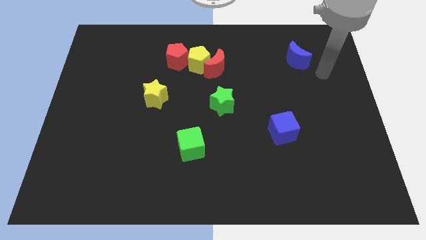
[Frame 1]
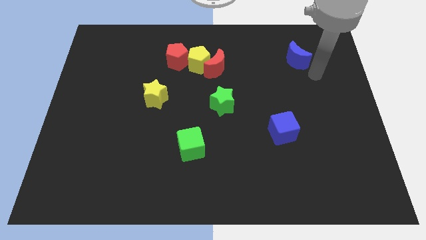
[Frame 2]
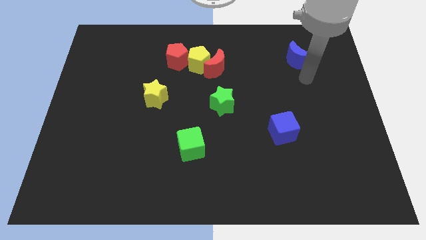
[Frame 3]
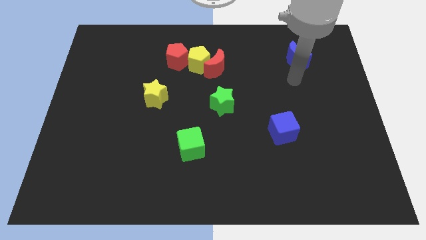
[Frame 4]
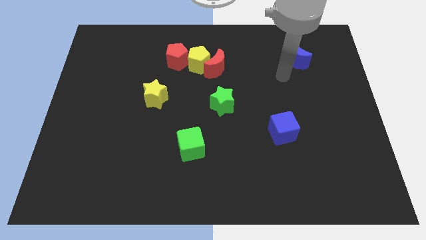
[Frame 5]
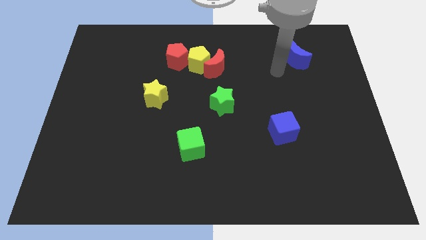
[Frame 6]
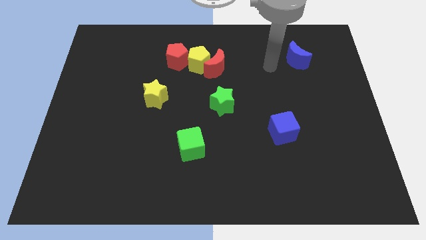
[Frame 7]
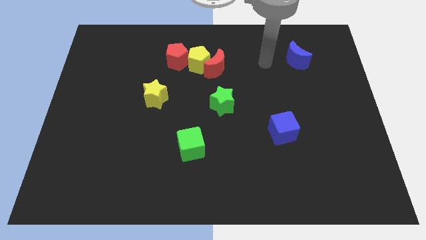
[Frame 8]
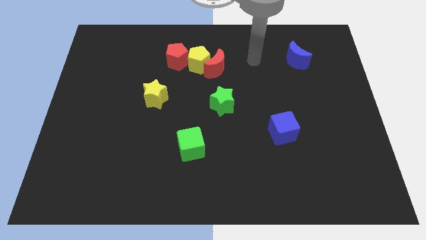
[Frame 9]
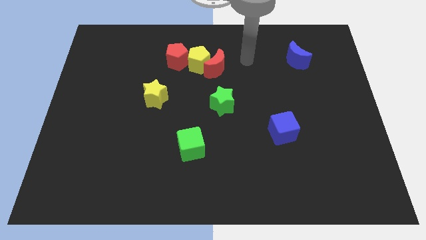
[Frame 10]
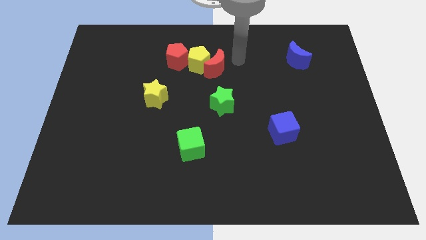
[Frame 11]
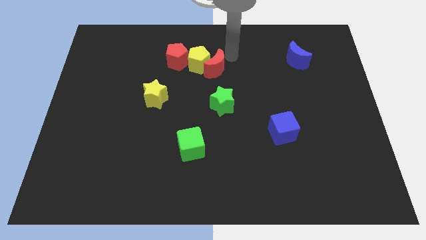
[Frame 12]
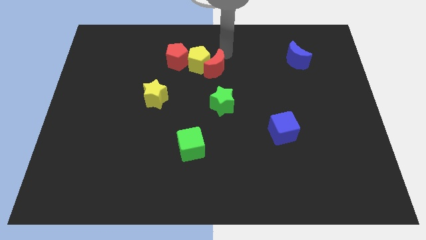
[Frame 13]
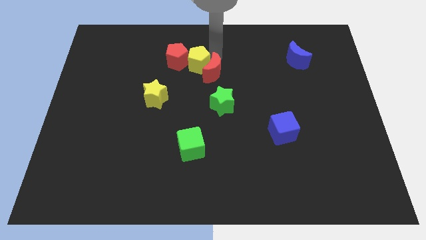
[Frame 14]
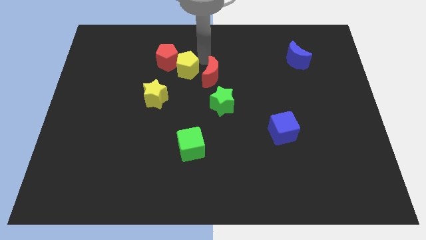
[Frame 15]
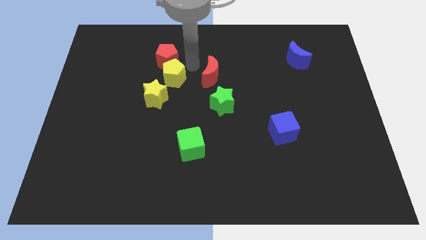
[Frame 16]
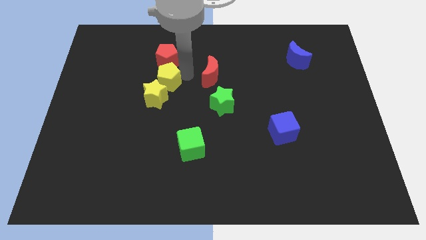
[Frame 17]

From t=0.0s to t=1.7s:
pull the red moon apart from the yellow pentagon

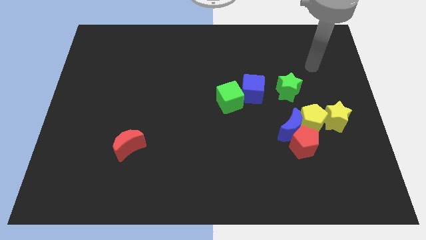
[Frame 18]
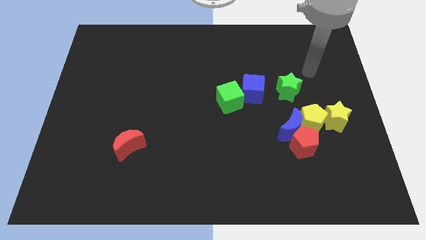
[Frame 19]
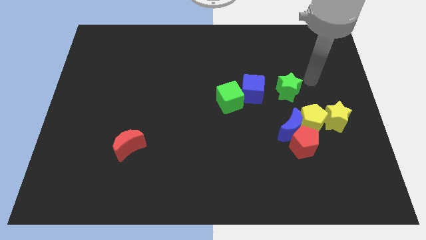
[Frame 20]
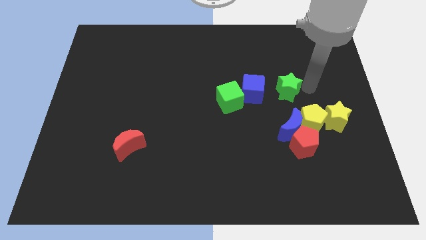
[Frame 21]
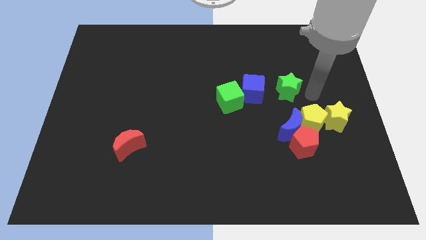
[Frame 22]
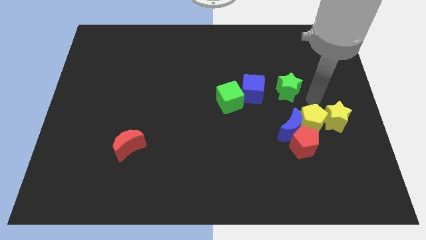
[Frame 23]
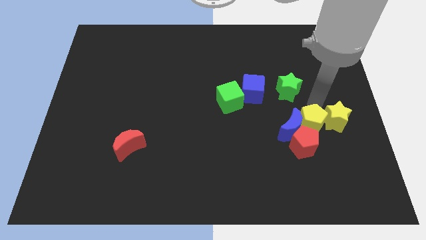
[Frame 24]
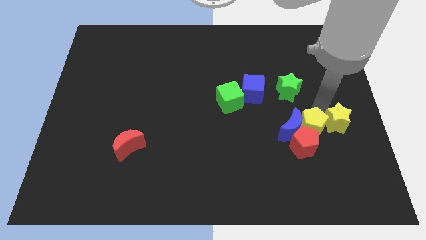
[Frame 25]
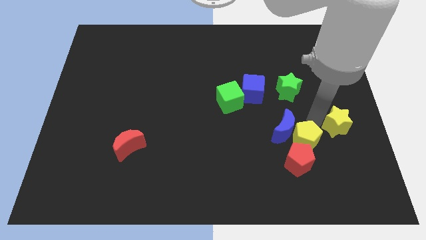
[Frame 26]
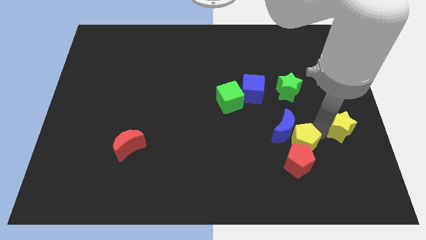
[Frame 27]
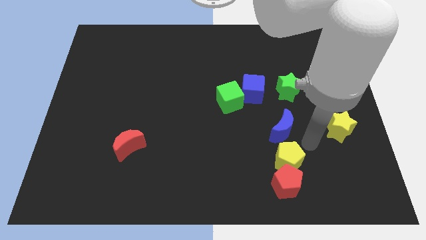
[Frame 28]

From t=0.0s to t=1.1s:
separate the blue moon from the red pentagon and yellow pentagon

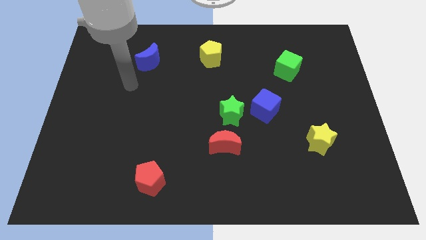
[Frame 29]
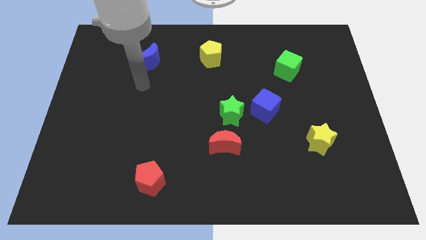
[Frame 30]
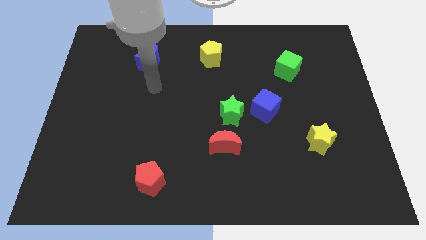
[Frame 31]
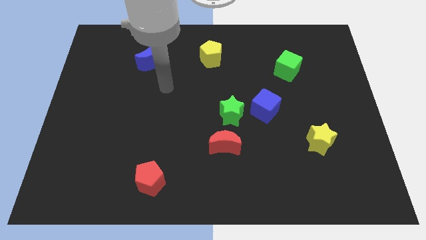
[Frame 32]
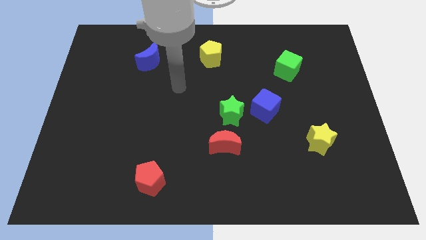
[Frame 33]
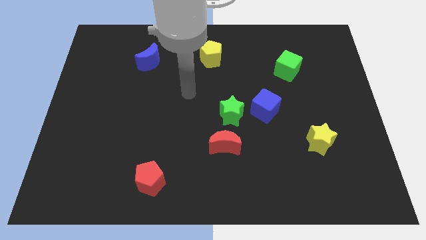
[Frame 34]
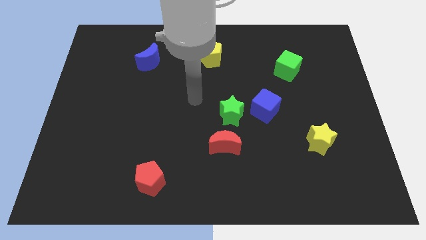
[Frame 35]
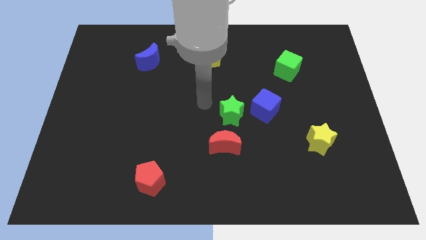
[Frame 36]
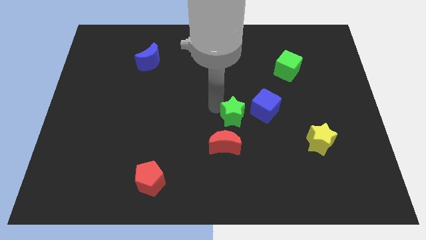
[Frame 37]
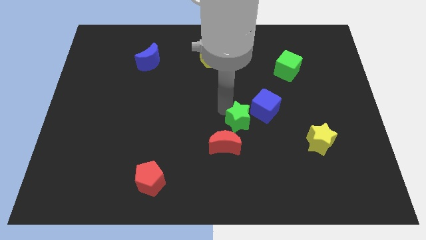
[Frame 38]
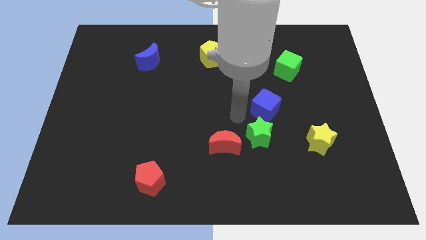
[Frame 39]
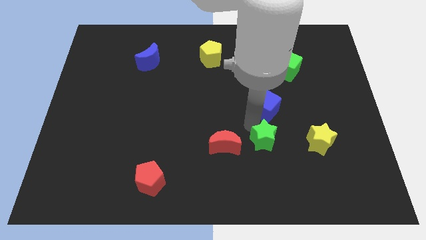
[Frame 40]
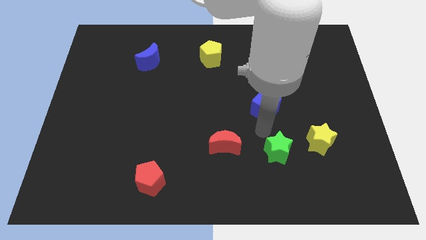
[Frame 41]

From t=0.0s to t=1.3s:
move the blue cube away from the green star

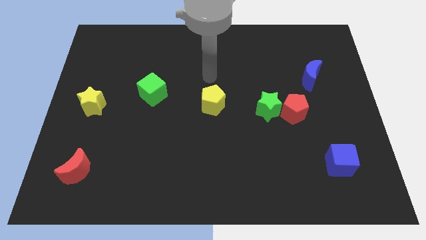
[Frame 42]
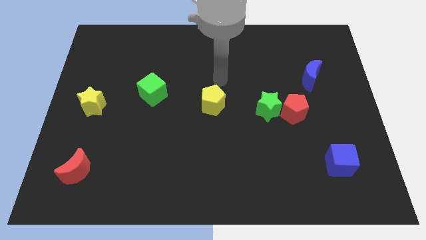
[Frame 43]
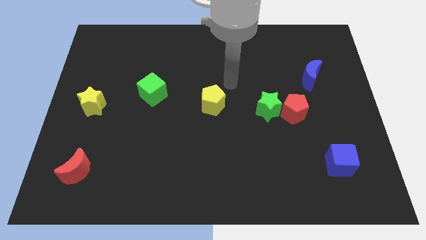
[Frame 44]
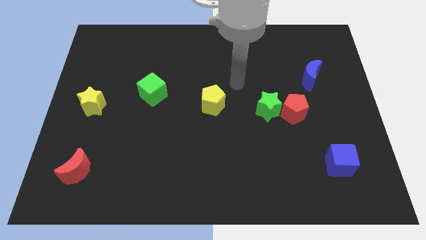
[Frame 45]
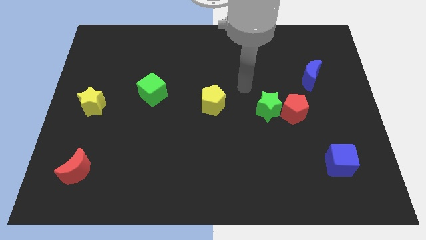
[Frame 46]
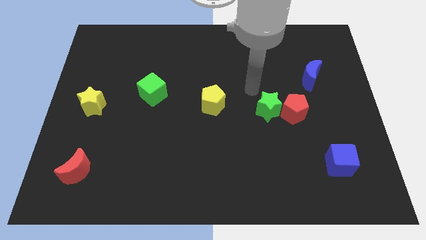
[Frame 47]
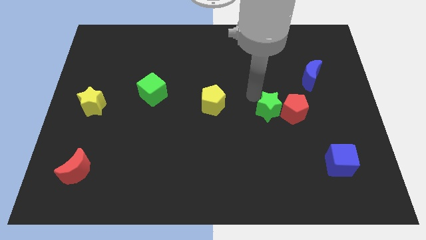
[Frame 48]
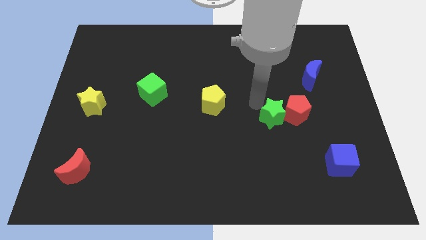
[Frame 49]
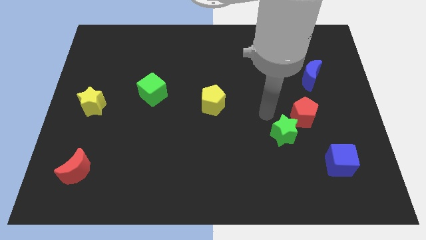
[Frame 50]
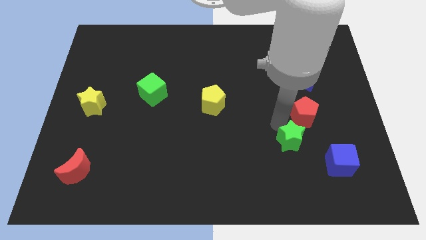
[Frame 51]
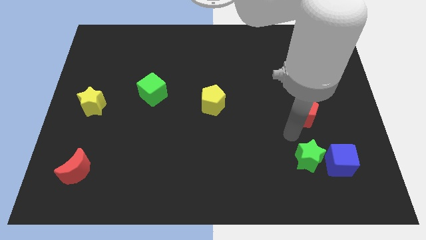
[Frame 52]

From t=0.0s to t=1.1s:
separate the red pentagon from the green star

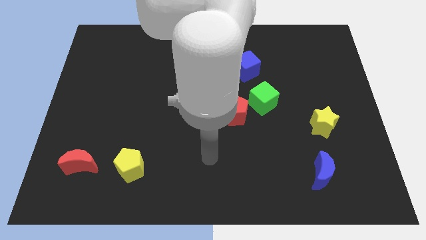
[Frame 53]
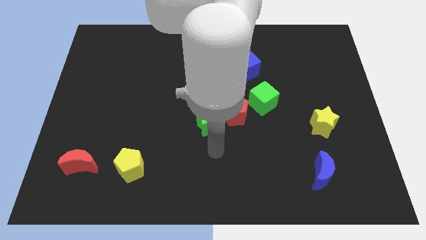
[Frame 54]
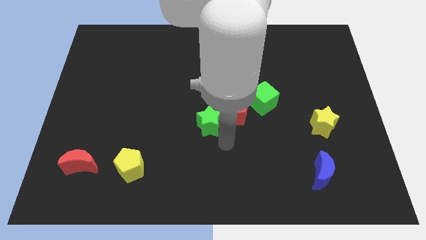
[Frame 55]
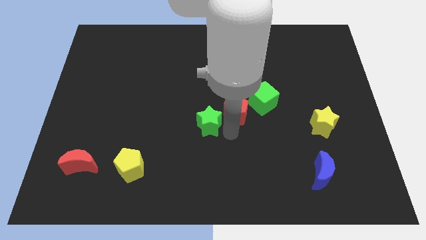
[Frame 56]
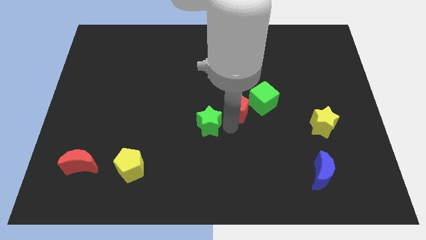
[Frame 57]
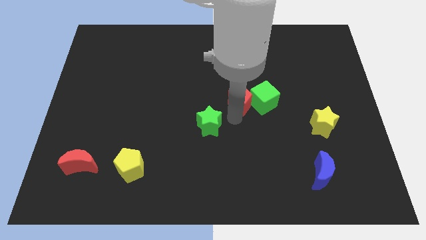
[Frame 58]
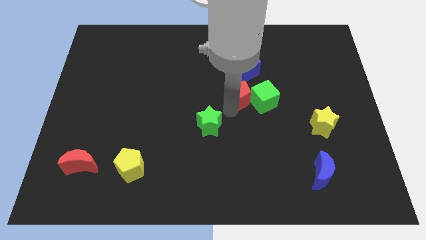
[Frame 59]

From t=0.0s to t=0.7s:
move the green star away from the red pentagon

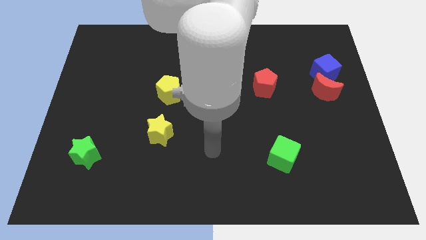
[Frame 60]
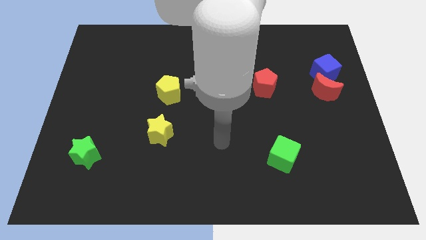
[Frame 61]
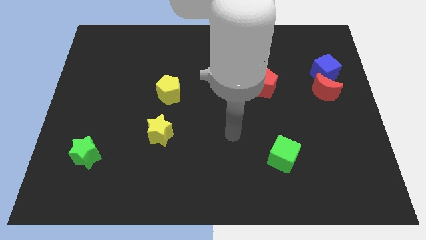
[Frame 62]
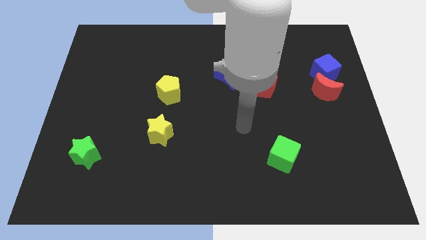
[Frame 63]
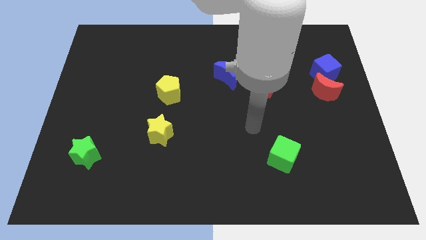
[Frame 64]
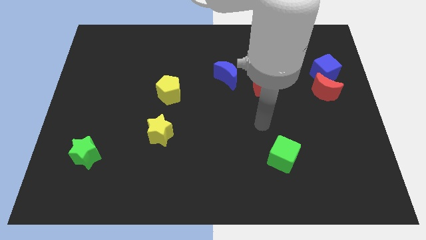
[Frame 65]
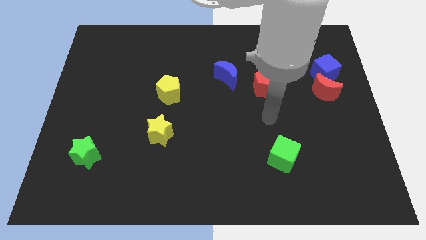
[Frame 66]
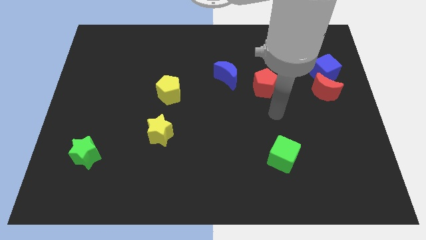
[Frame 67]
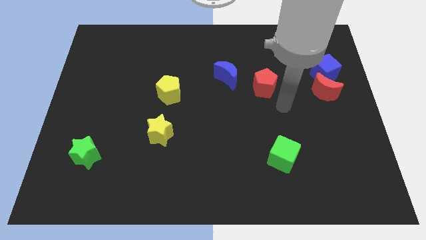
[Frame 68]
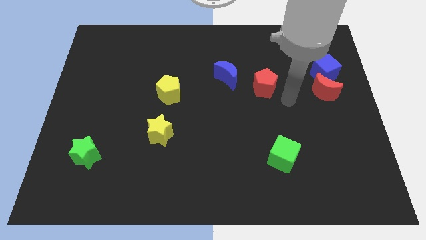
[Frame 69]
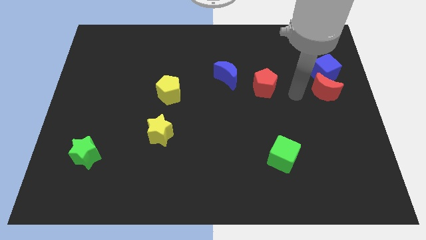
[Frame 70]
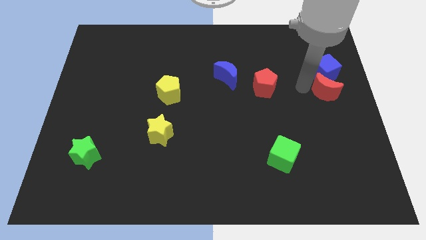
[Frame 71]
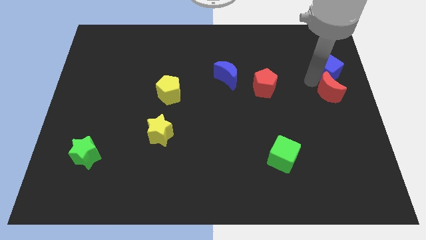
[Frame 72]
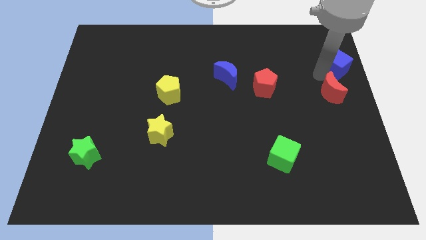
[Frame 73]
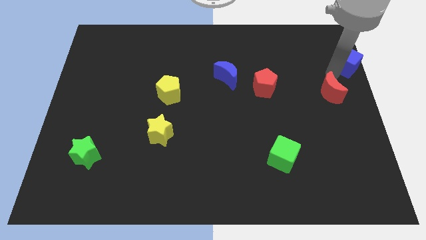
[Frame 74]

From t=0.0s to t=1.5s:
pull the red moon apart from the blue cube

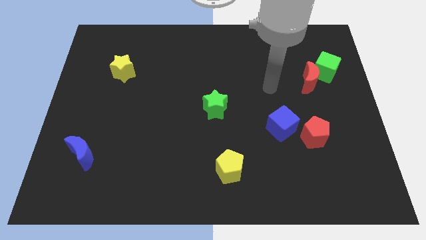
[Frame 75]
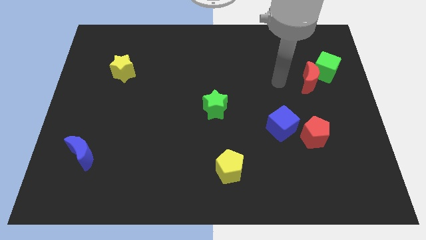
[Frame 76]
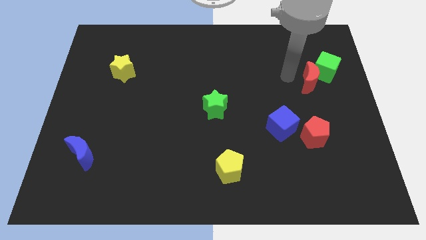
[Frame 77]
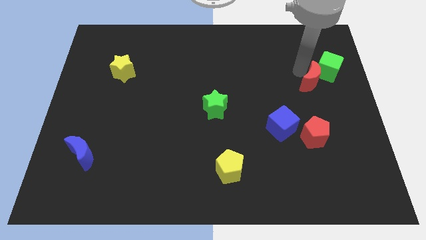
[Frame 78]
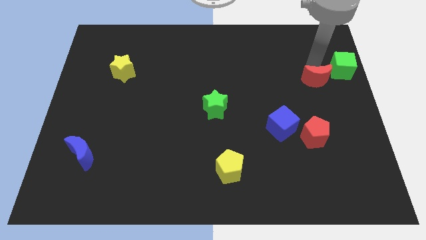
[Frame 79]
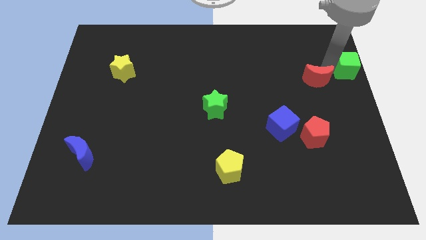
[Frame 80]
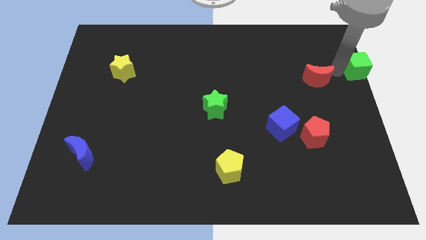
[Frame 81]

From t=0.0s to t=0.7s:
pull the red moon apart from the green cube

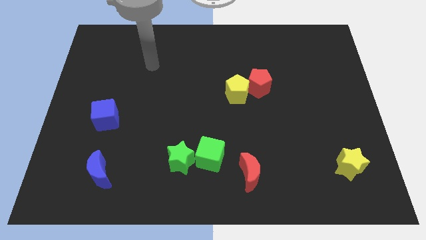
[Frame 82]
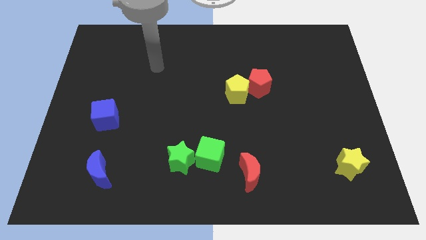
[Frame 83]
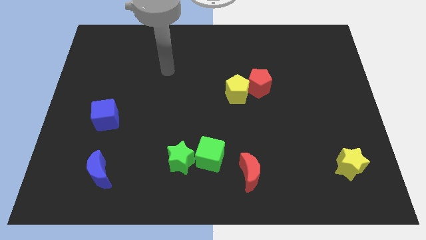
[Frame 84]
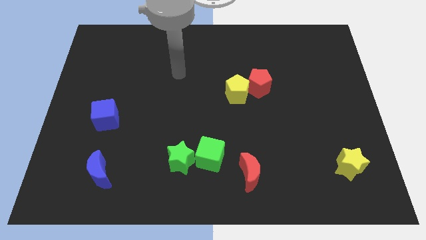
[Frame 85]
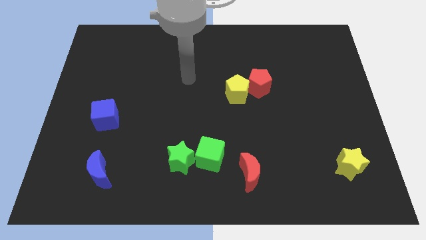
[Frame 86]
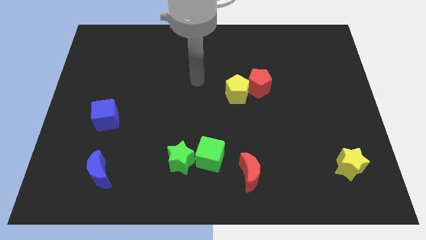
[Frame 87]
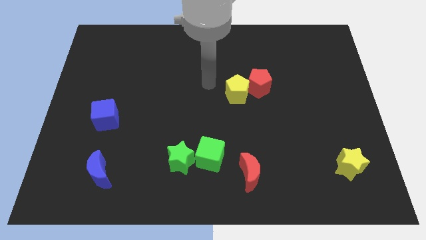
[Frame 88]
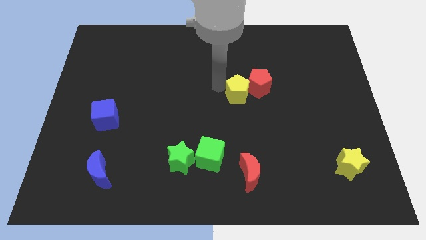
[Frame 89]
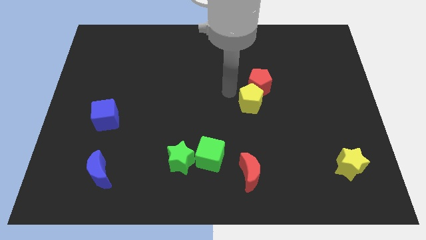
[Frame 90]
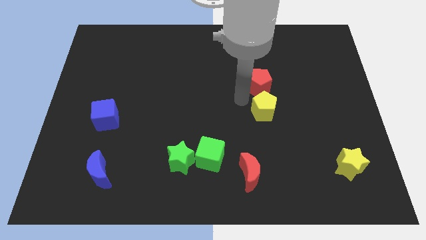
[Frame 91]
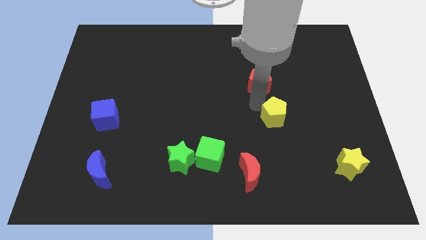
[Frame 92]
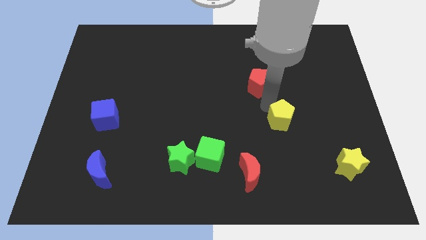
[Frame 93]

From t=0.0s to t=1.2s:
separate the red pentagon from the yellow pentagon
